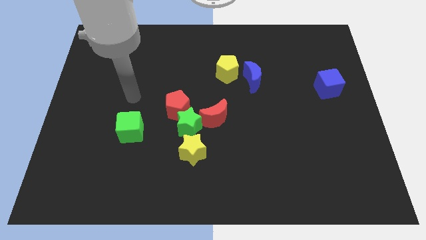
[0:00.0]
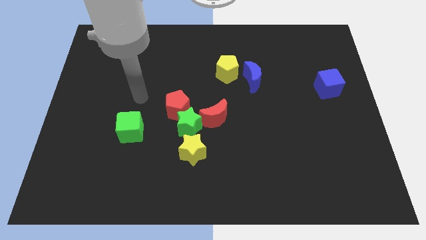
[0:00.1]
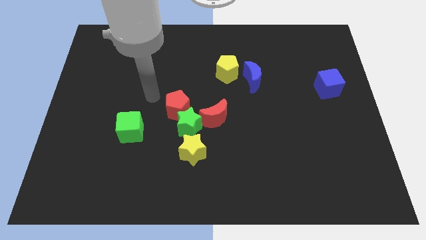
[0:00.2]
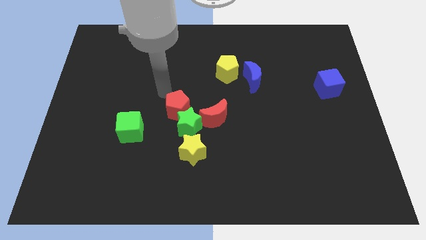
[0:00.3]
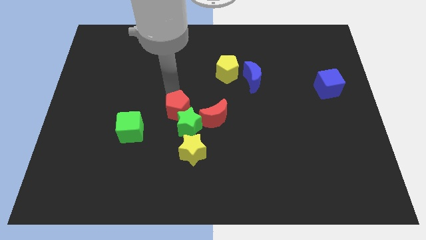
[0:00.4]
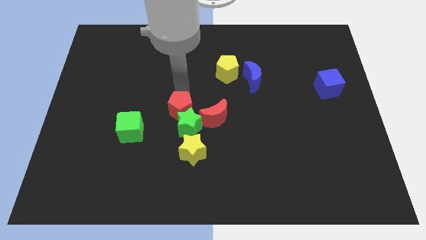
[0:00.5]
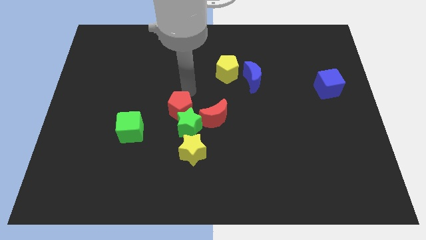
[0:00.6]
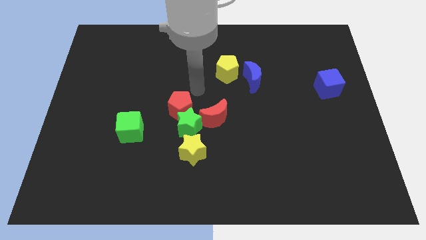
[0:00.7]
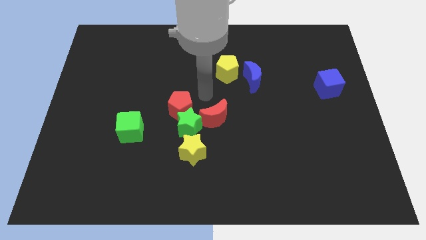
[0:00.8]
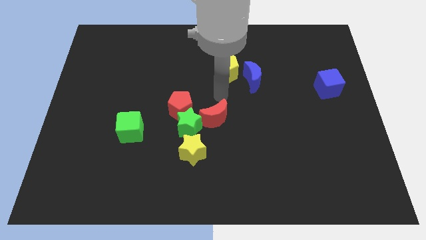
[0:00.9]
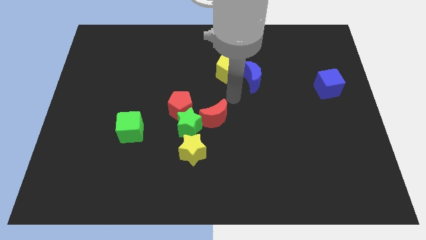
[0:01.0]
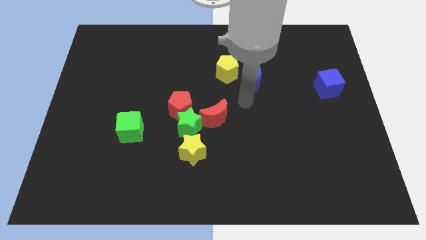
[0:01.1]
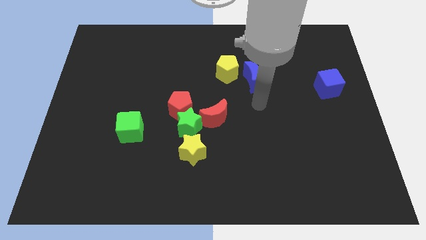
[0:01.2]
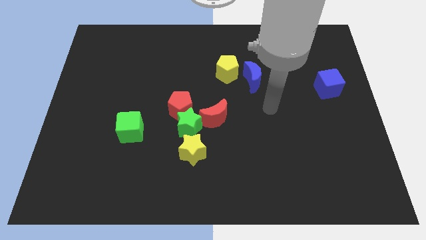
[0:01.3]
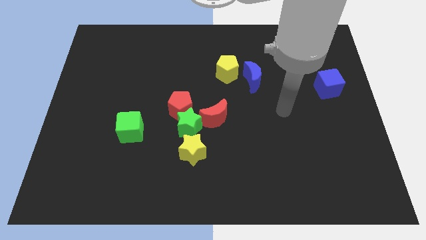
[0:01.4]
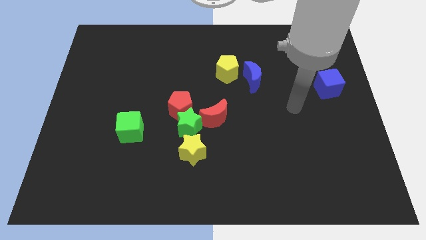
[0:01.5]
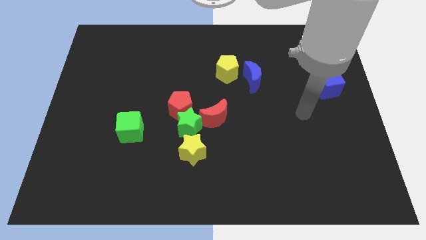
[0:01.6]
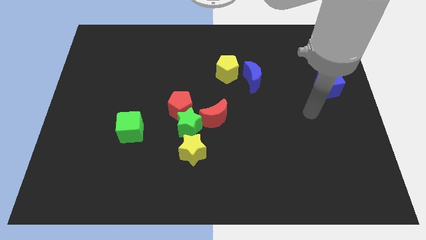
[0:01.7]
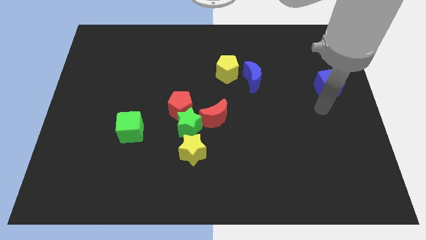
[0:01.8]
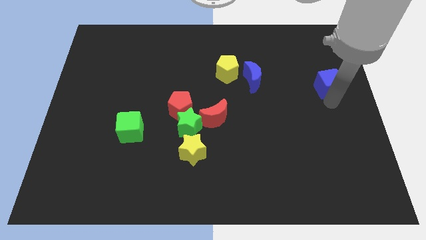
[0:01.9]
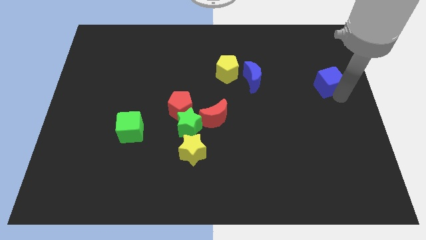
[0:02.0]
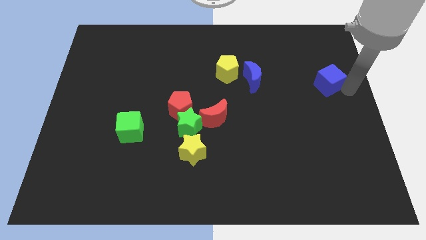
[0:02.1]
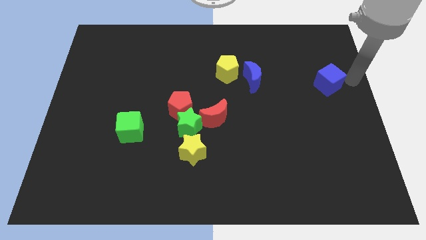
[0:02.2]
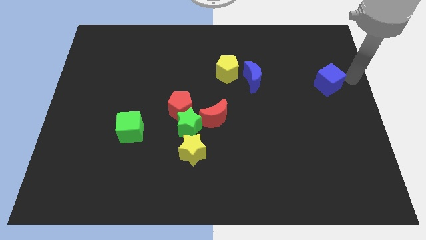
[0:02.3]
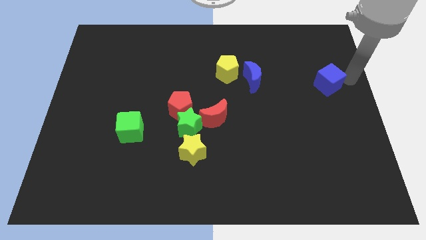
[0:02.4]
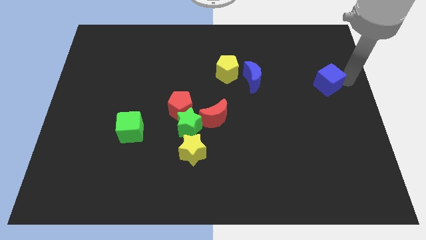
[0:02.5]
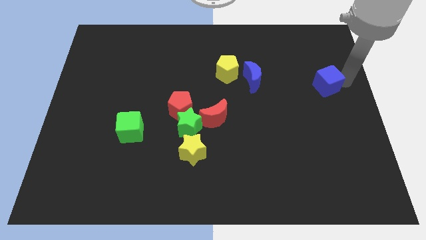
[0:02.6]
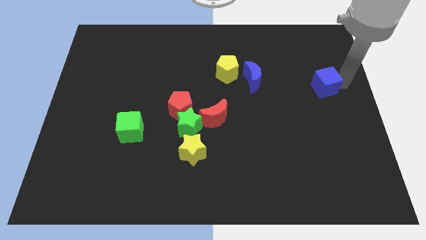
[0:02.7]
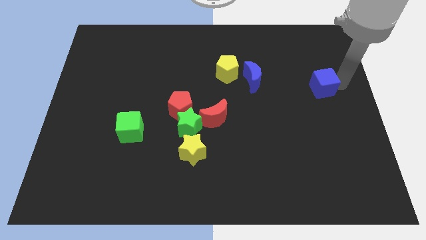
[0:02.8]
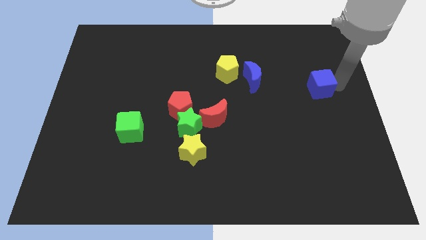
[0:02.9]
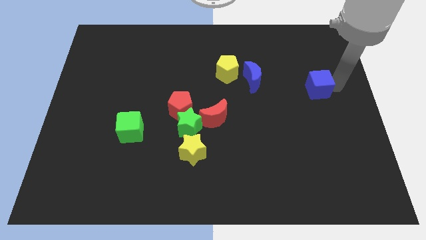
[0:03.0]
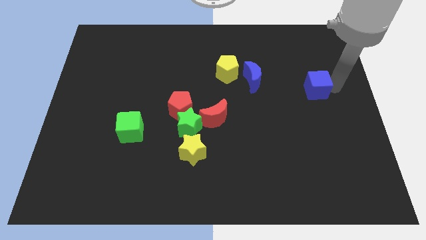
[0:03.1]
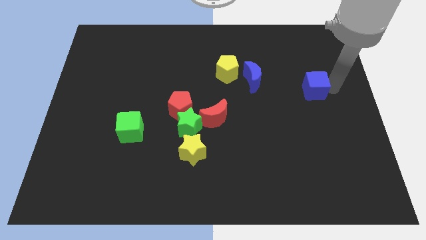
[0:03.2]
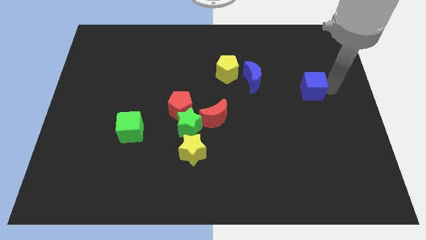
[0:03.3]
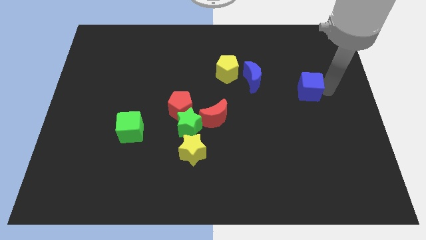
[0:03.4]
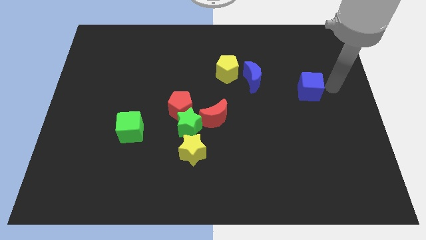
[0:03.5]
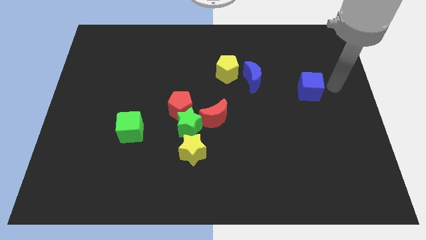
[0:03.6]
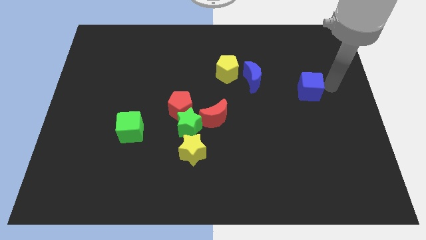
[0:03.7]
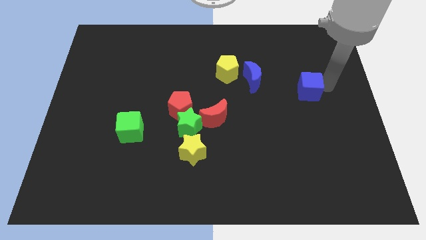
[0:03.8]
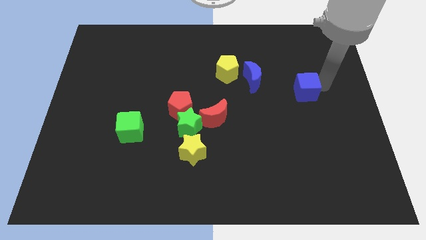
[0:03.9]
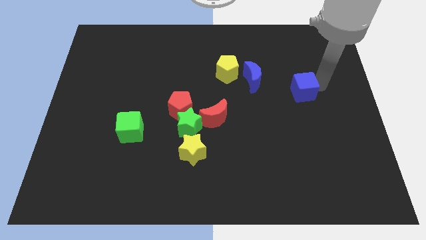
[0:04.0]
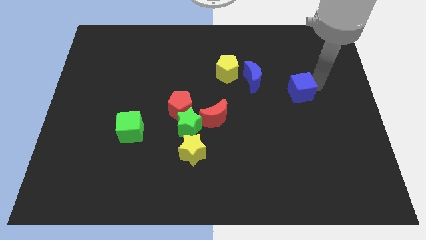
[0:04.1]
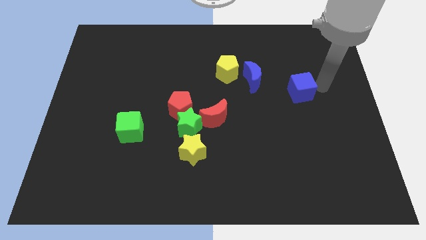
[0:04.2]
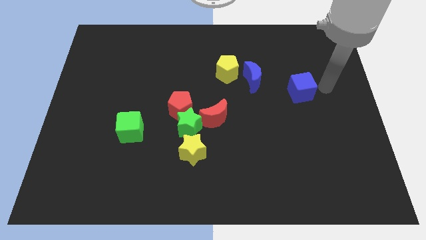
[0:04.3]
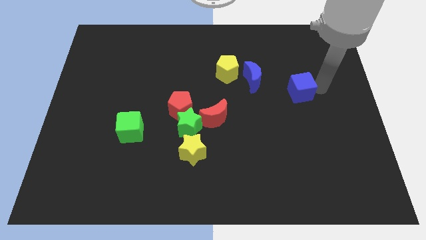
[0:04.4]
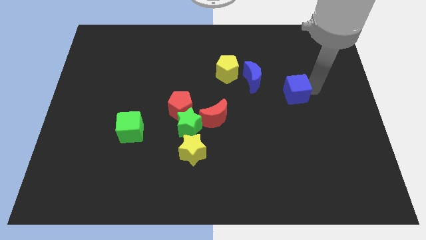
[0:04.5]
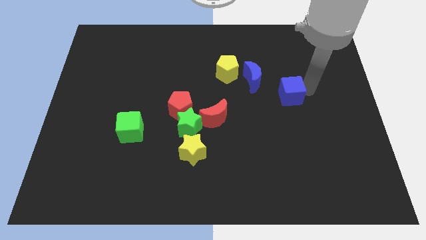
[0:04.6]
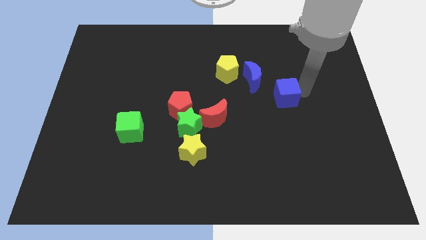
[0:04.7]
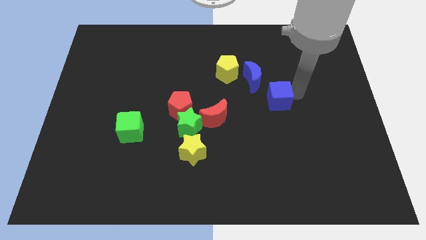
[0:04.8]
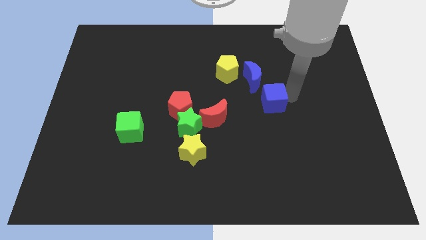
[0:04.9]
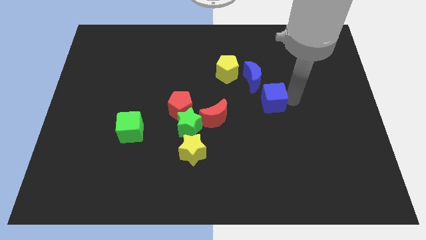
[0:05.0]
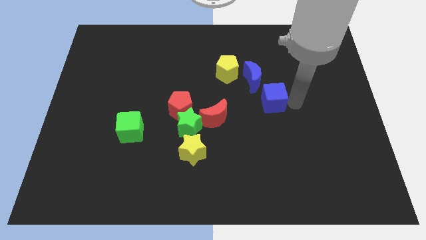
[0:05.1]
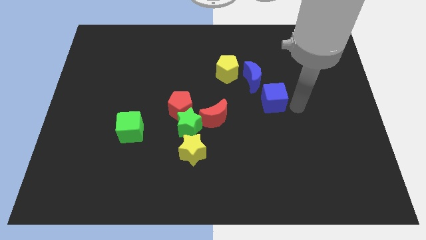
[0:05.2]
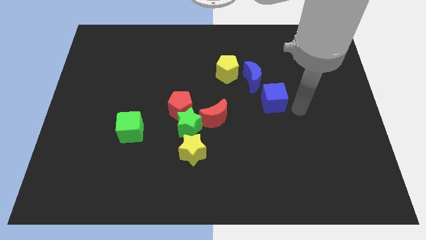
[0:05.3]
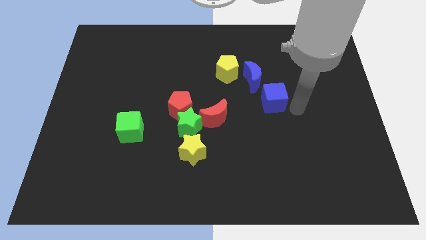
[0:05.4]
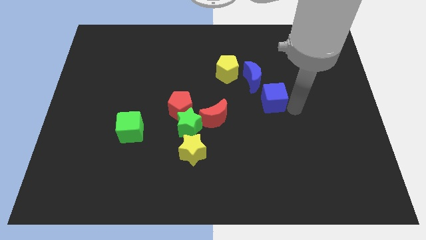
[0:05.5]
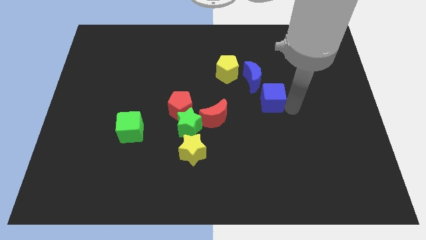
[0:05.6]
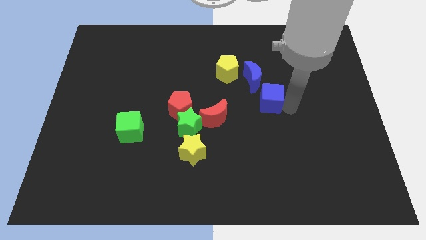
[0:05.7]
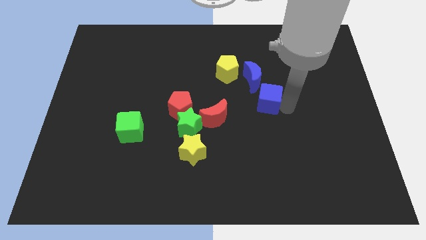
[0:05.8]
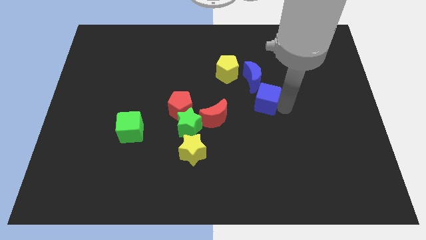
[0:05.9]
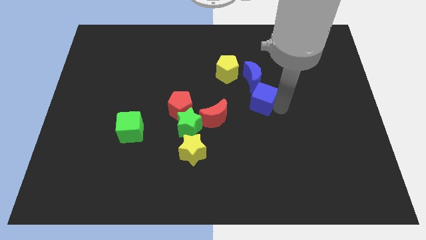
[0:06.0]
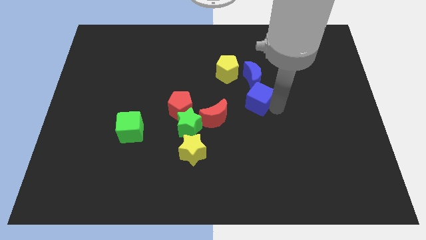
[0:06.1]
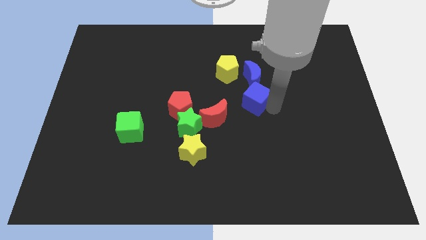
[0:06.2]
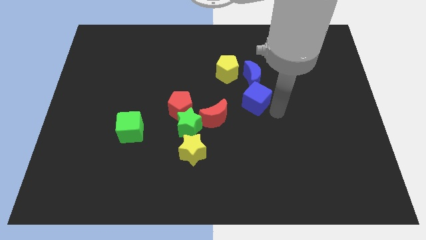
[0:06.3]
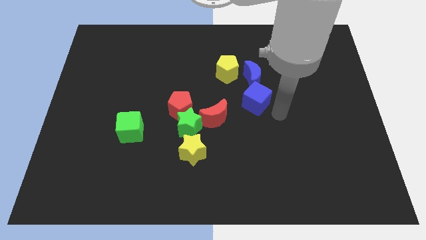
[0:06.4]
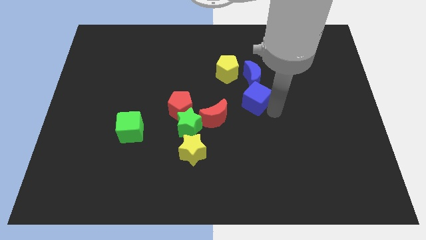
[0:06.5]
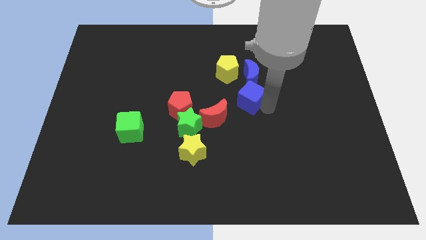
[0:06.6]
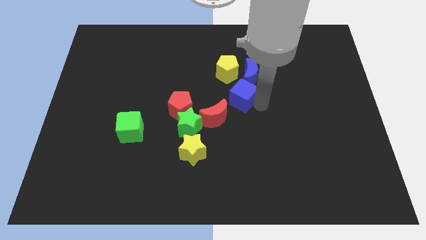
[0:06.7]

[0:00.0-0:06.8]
slide the blue cube to the left

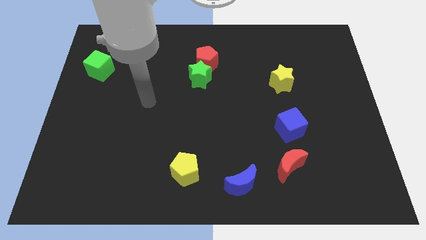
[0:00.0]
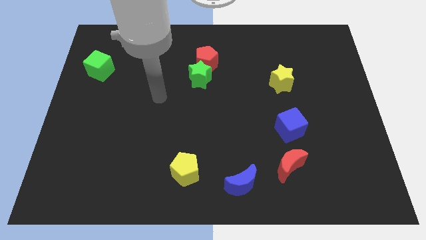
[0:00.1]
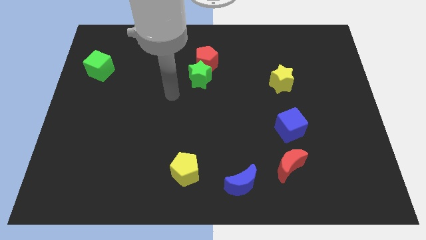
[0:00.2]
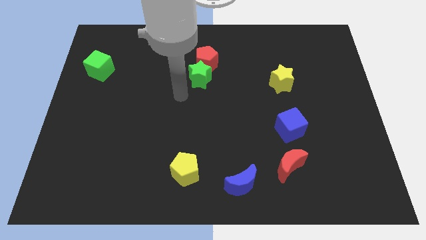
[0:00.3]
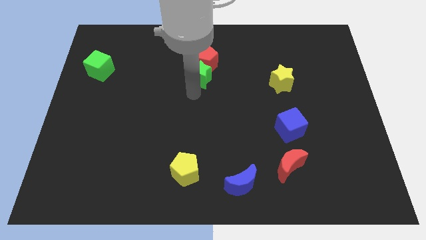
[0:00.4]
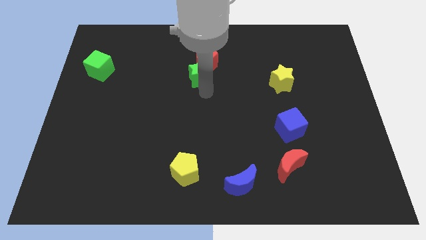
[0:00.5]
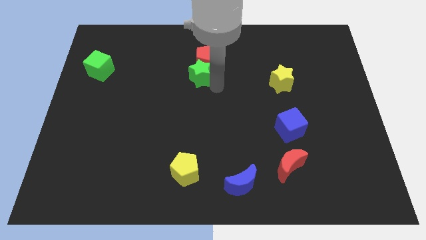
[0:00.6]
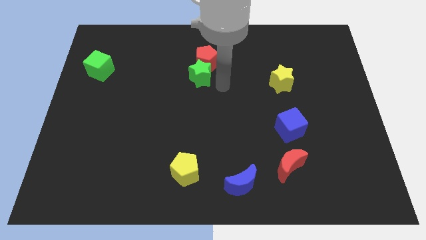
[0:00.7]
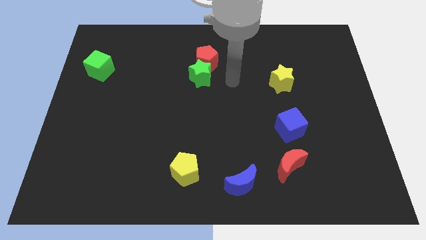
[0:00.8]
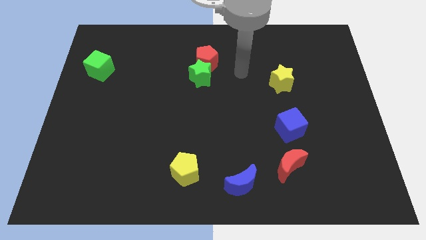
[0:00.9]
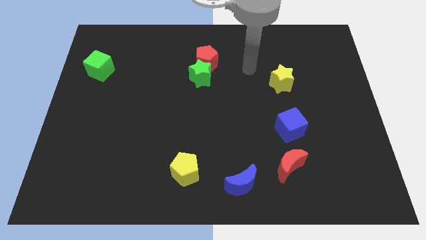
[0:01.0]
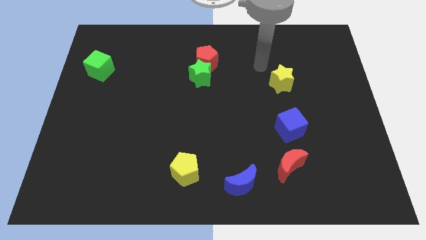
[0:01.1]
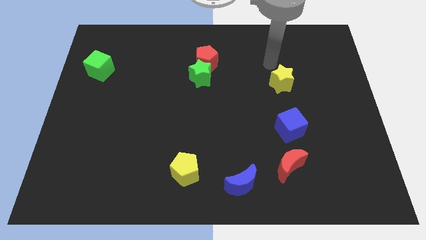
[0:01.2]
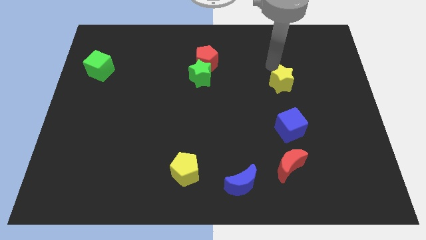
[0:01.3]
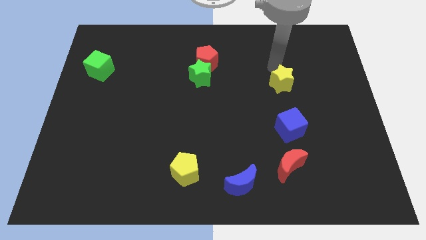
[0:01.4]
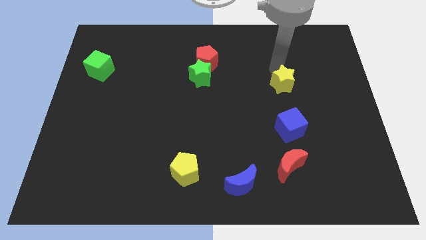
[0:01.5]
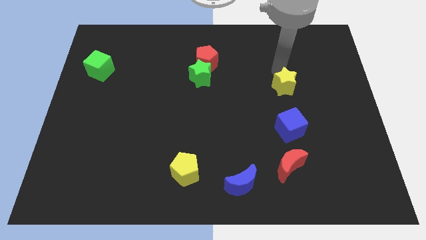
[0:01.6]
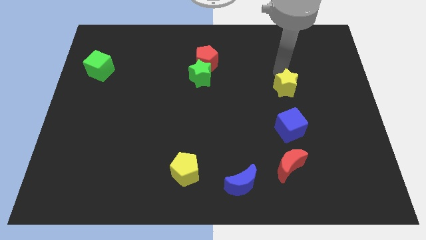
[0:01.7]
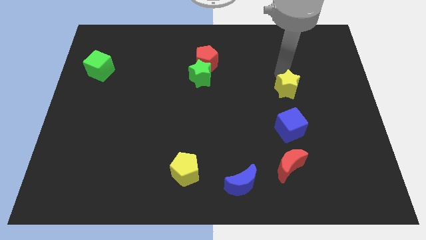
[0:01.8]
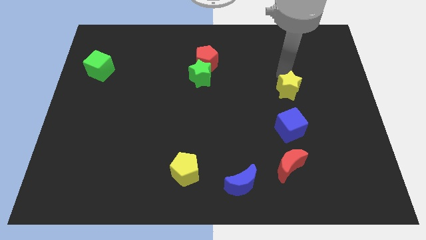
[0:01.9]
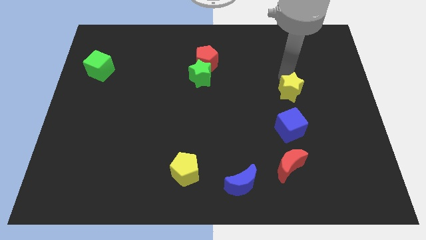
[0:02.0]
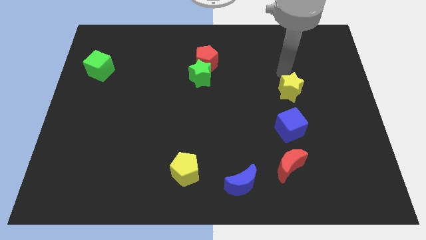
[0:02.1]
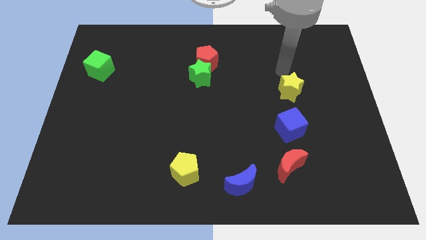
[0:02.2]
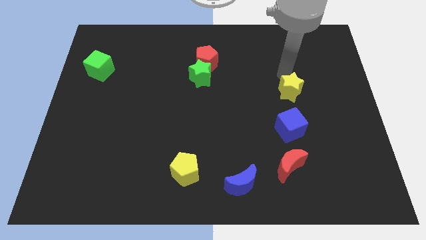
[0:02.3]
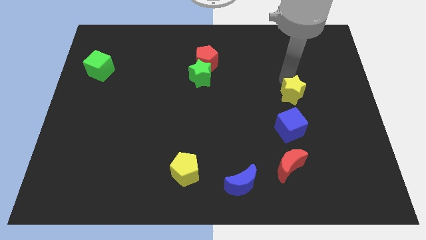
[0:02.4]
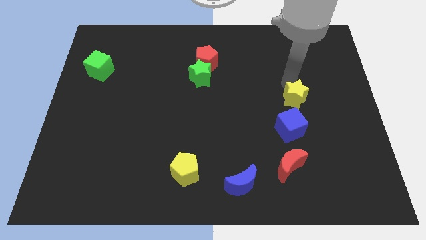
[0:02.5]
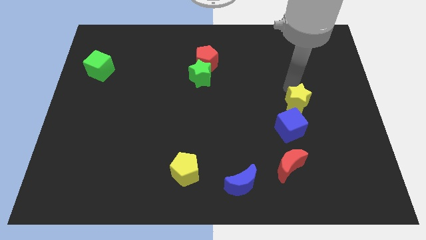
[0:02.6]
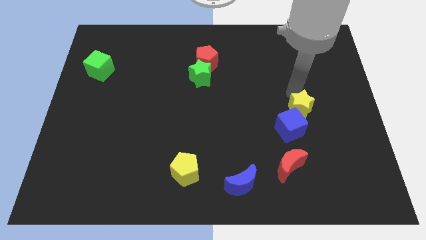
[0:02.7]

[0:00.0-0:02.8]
move the yellow star somewhat down
